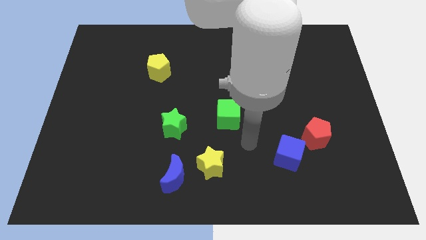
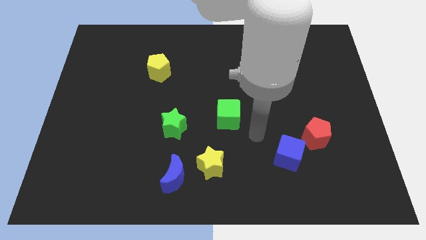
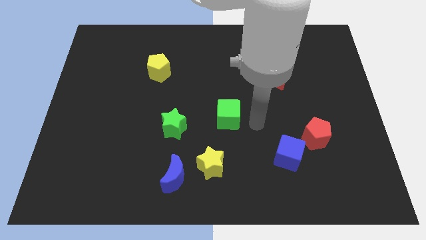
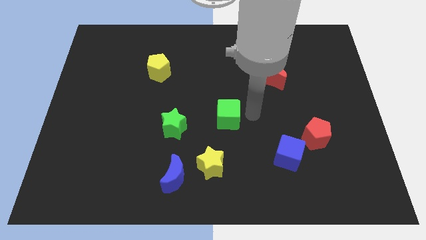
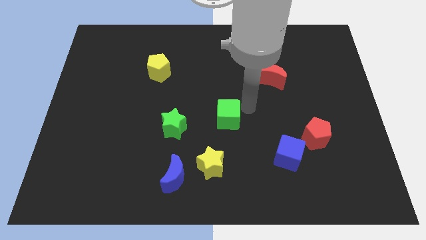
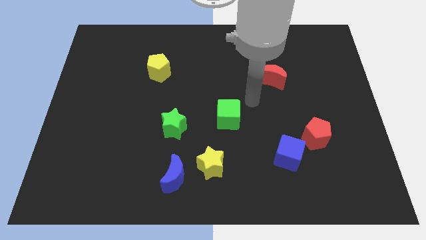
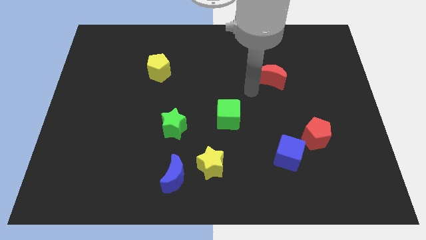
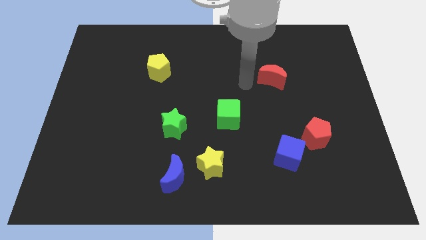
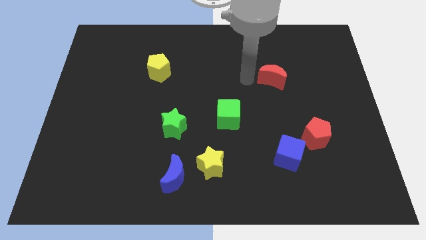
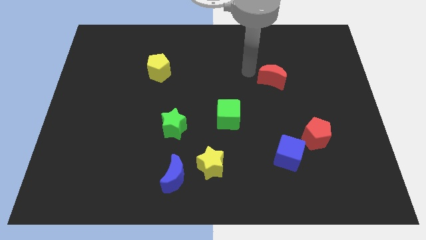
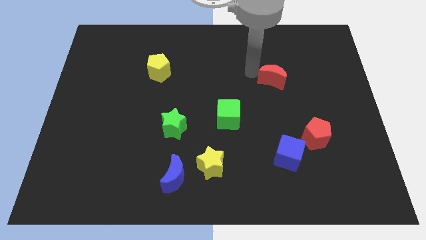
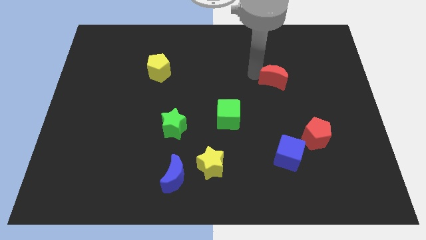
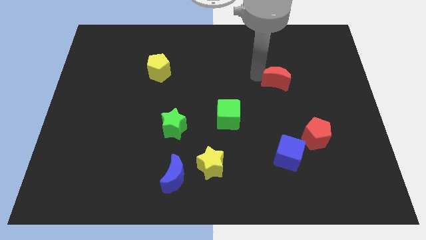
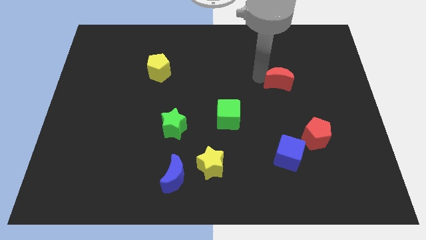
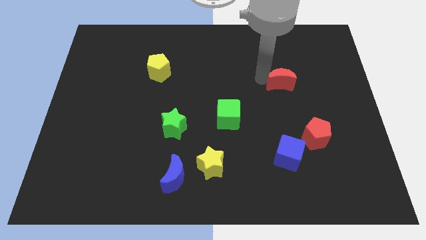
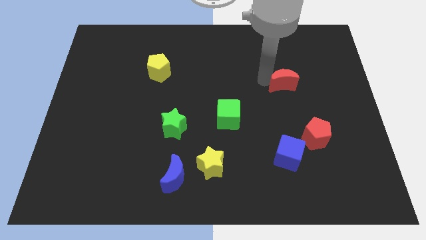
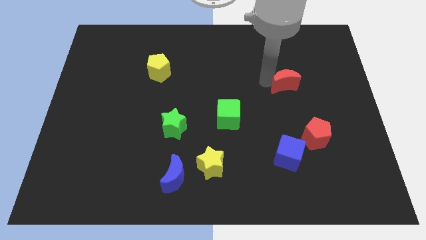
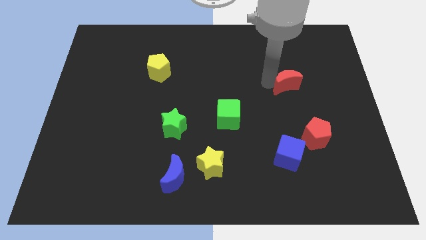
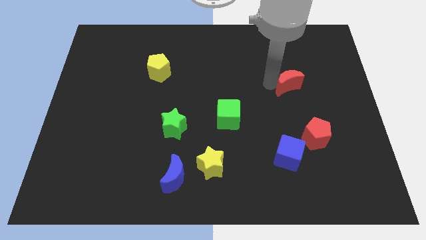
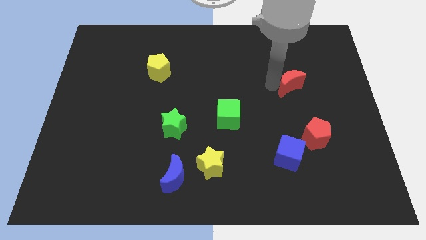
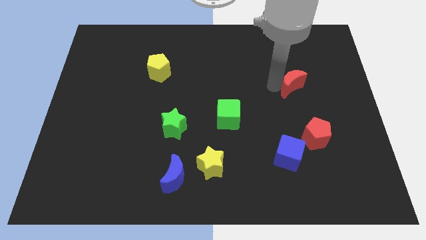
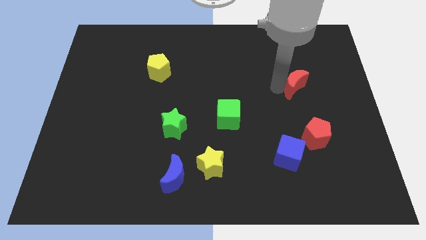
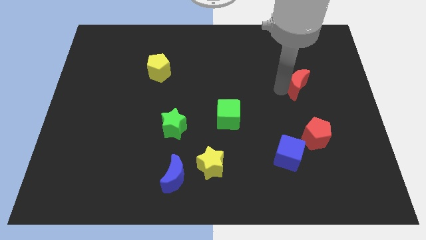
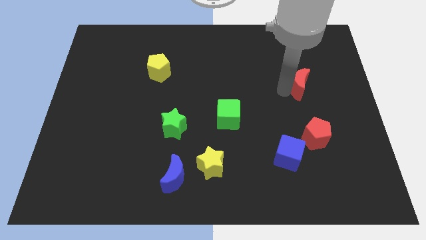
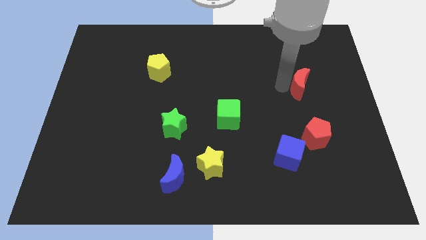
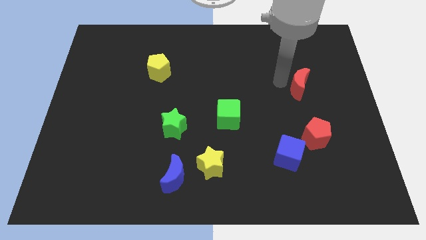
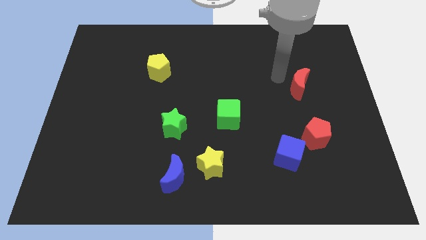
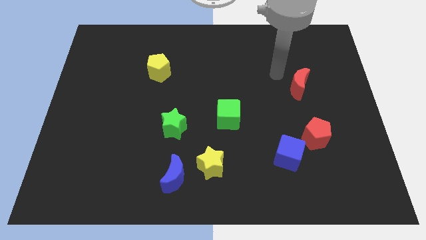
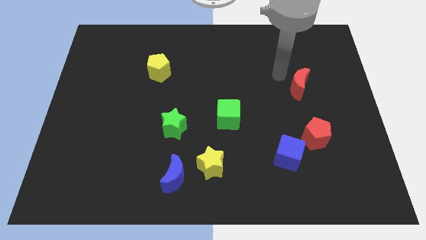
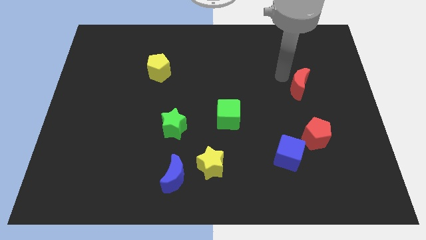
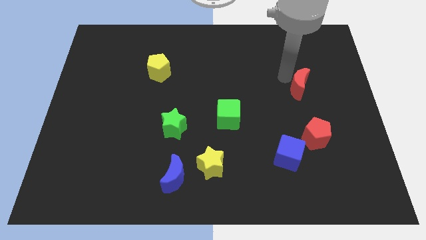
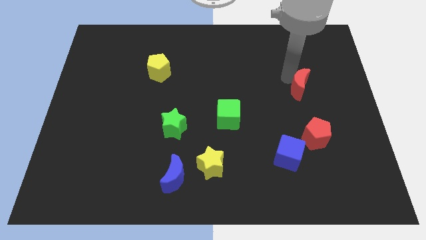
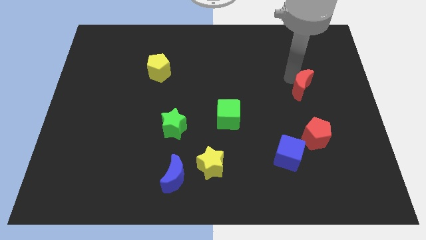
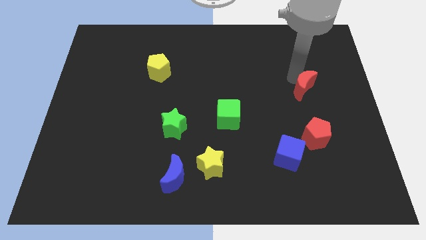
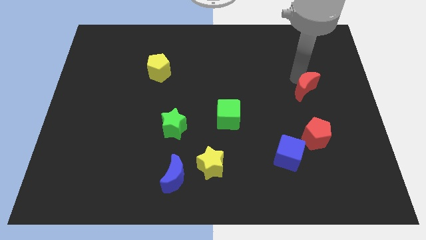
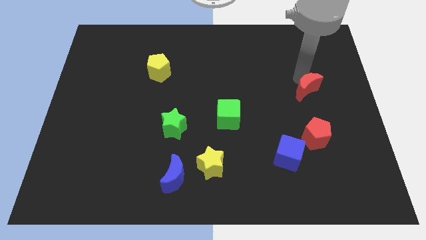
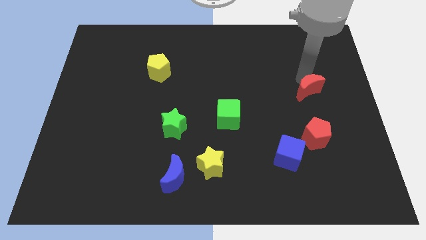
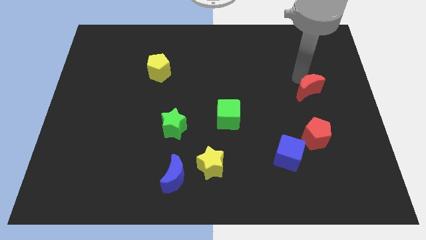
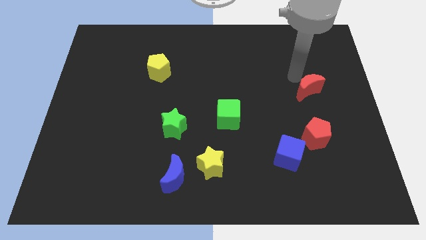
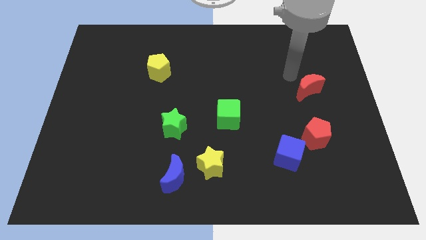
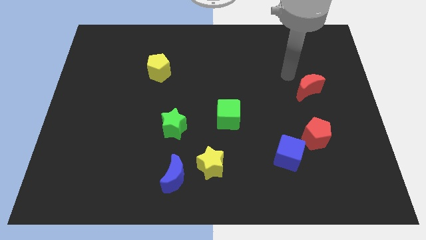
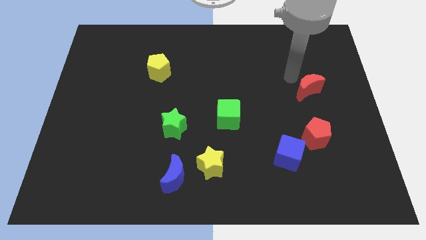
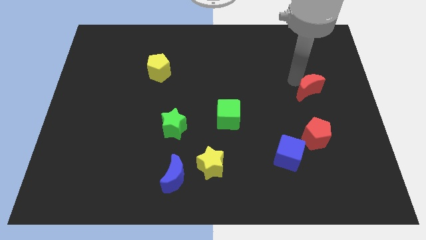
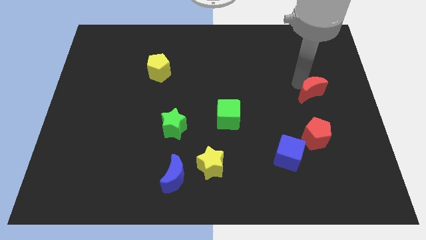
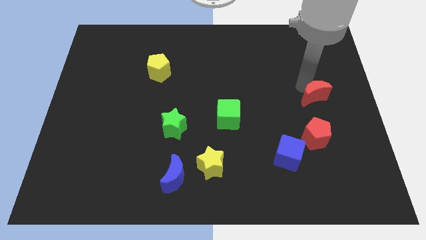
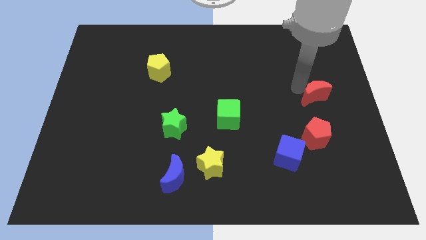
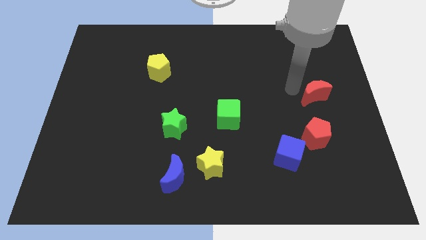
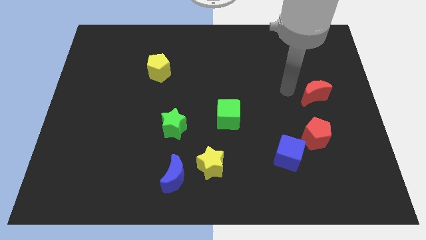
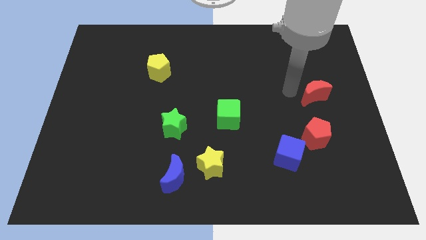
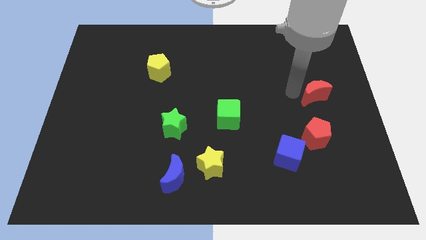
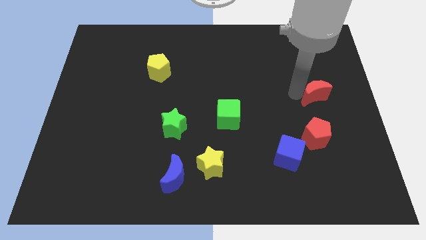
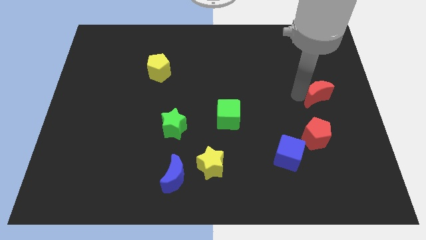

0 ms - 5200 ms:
push the red moon to the right side
